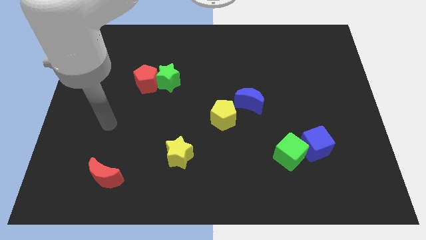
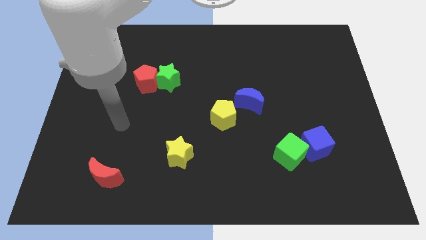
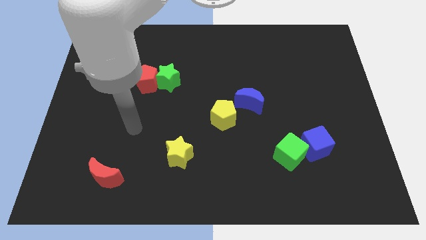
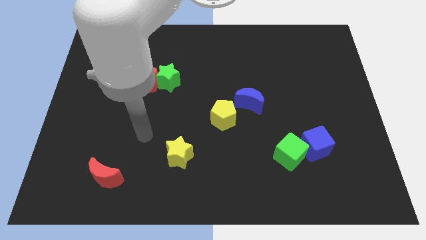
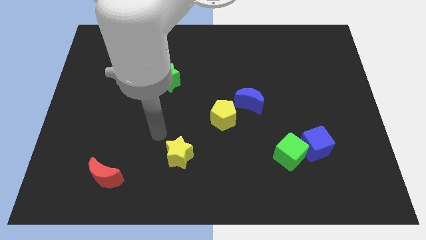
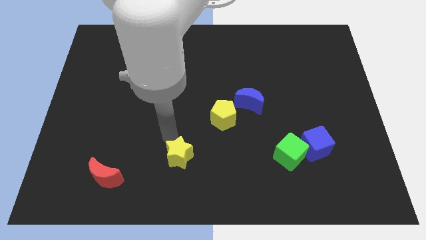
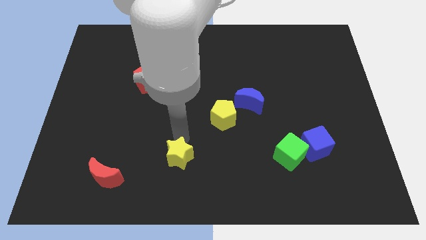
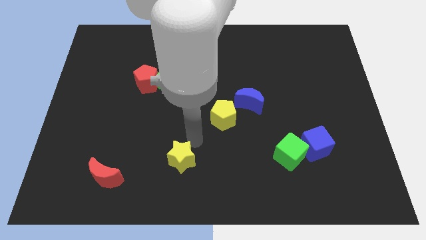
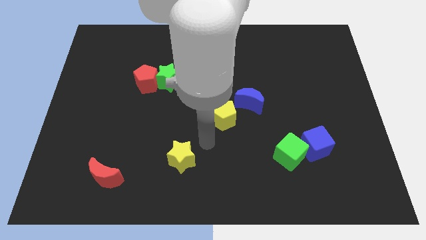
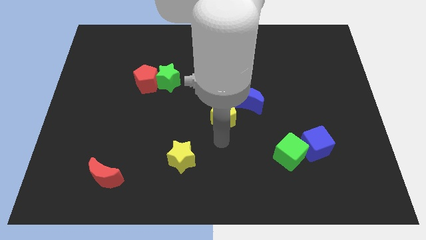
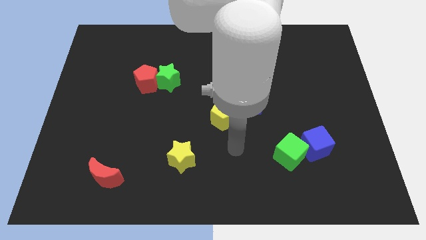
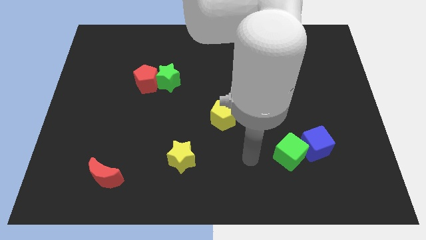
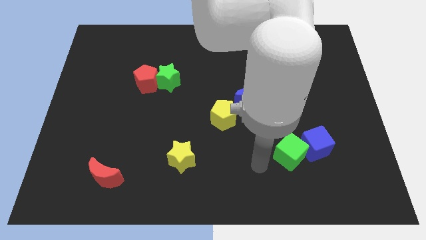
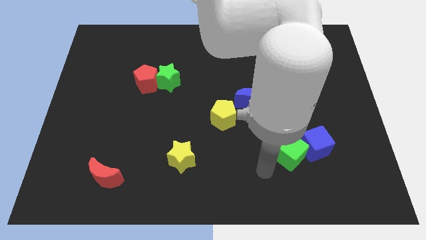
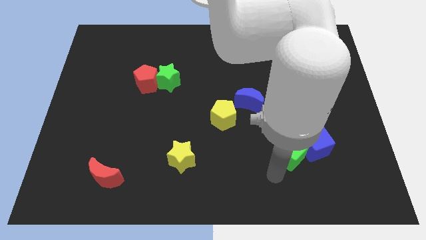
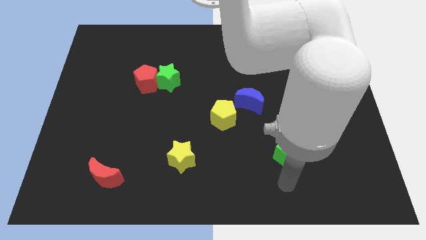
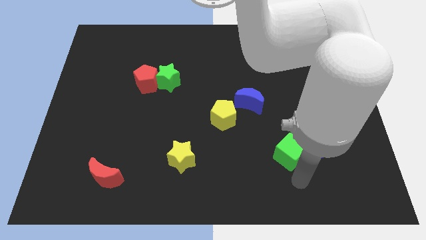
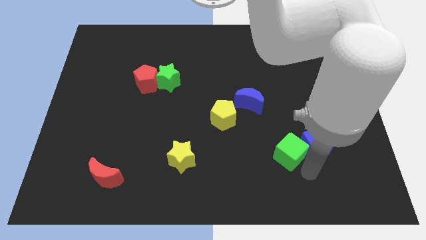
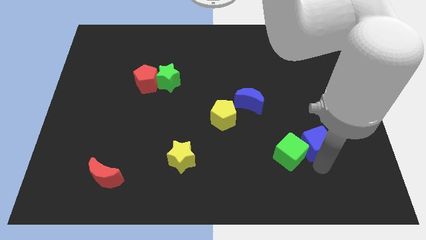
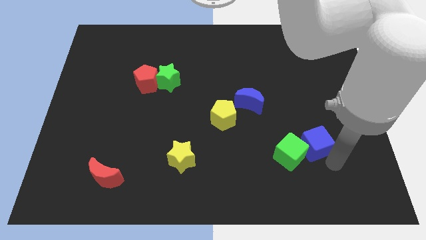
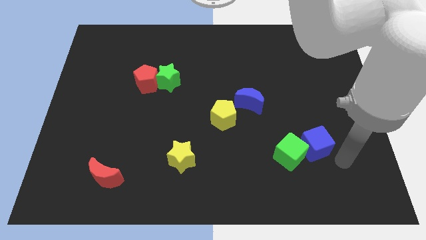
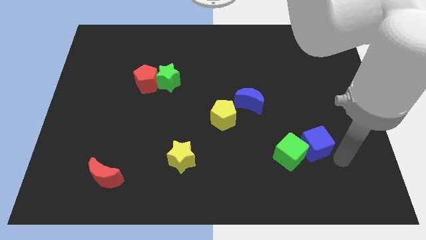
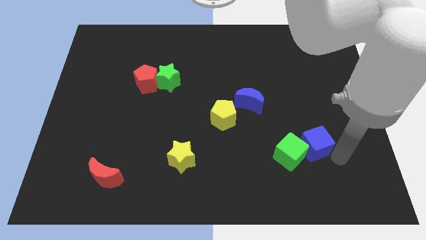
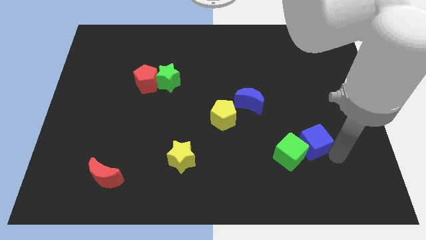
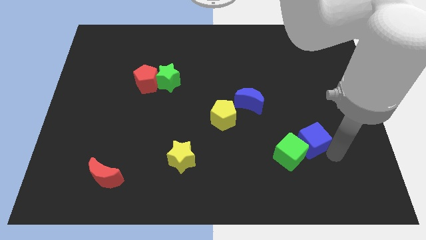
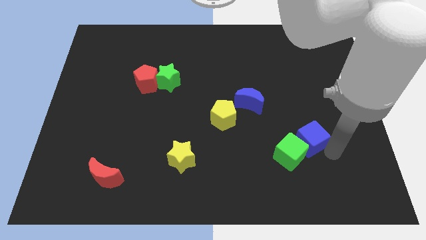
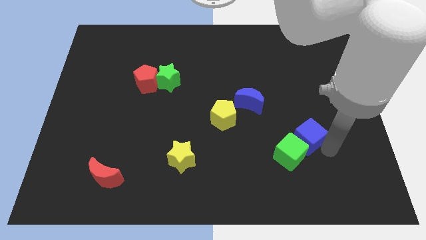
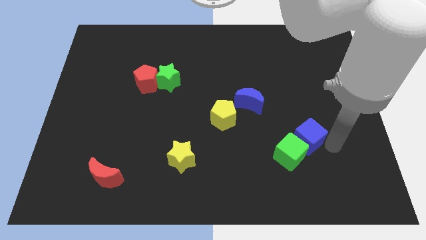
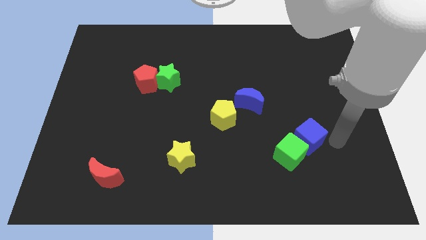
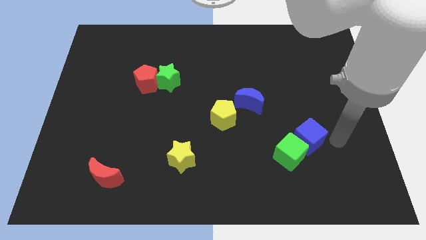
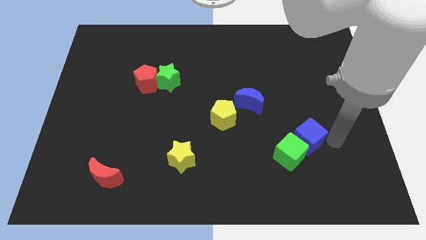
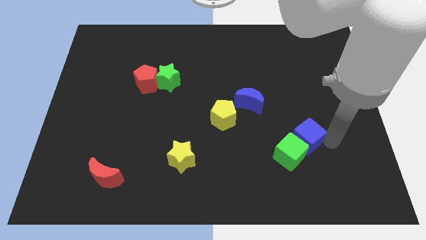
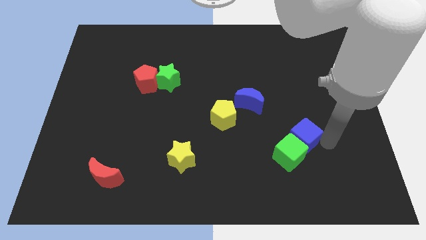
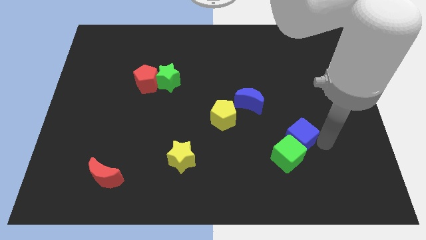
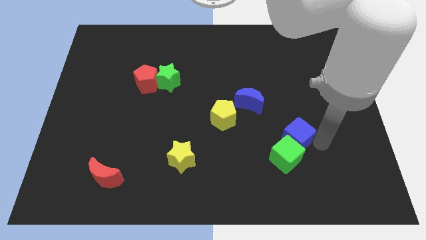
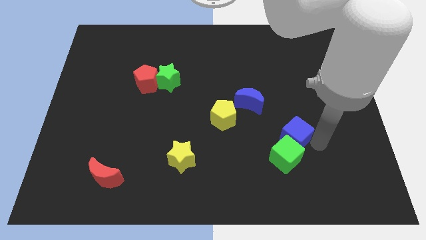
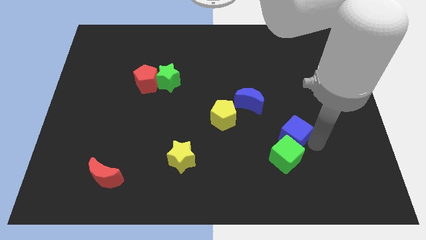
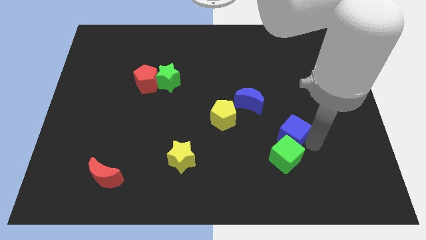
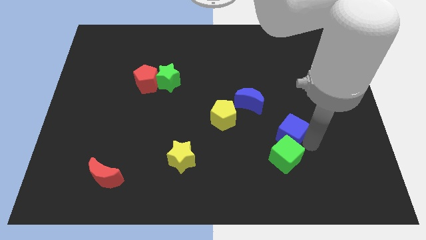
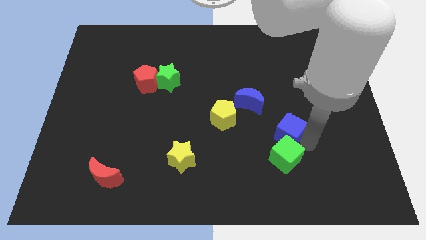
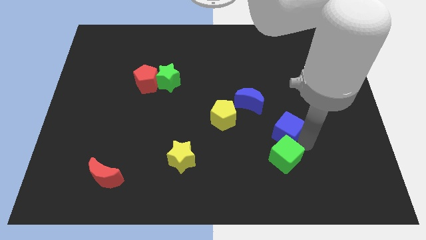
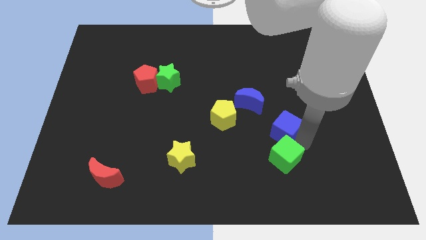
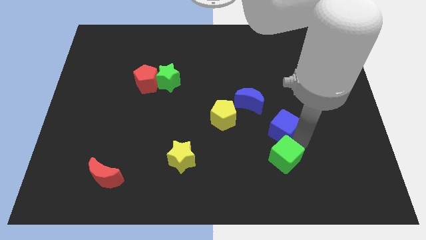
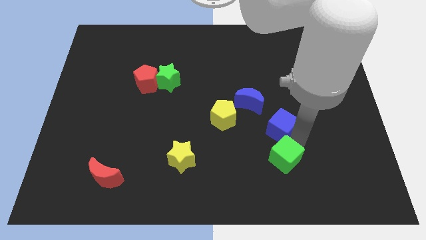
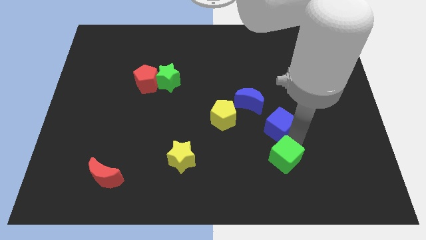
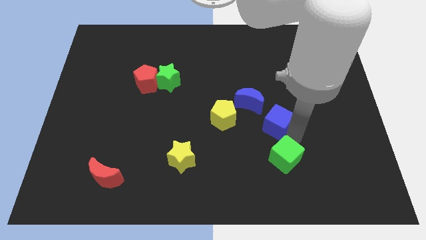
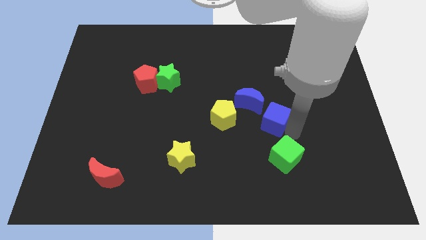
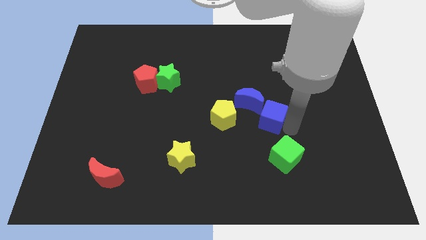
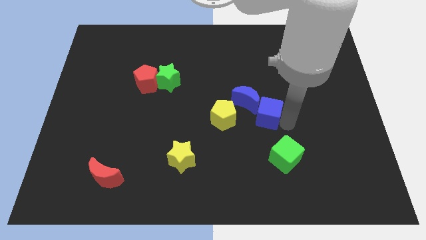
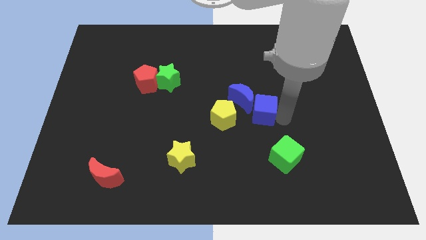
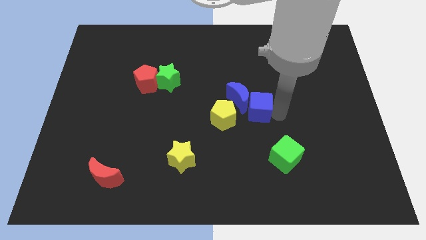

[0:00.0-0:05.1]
move the blue cube a bit left

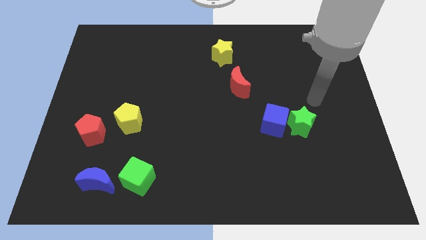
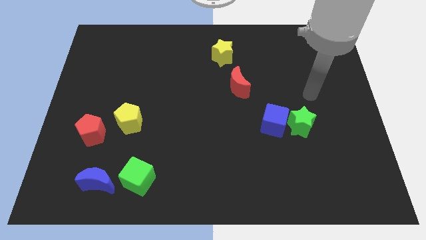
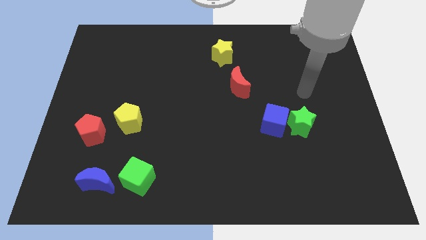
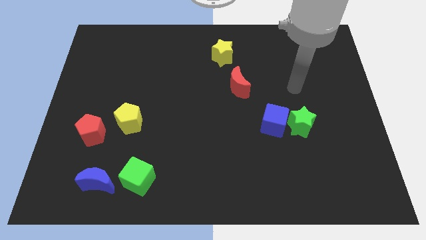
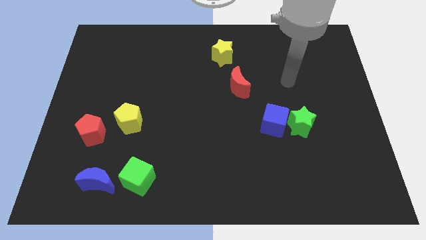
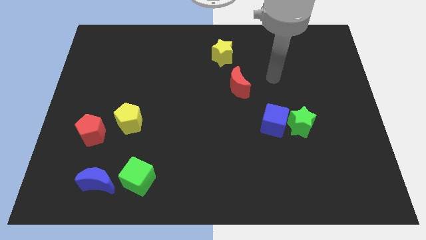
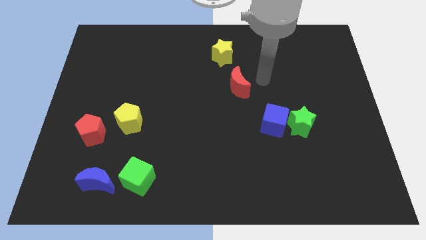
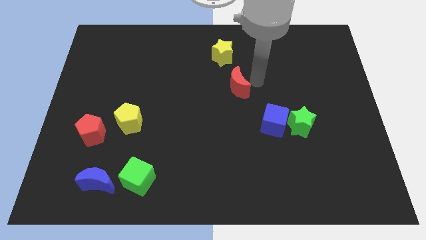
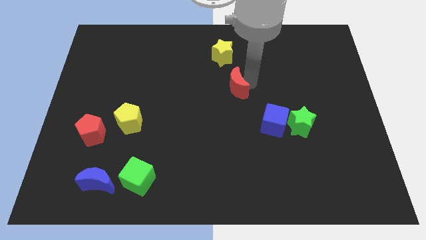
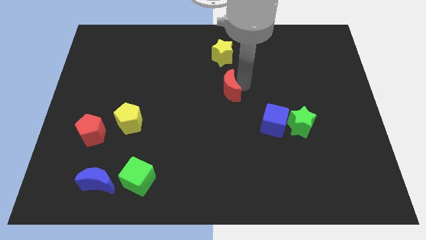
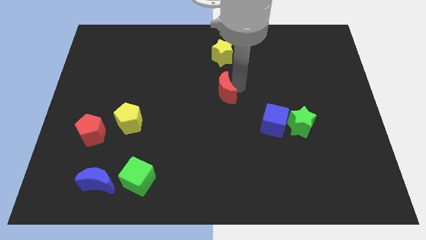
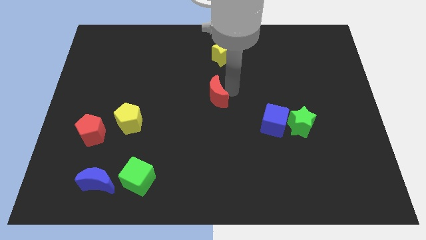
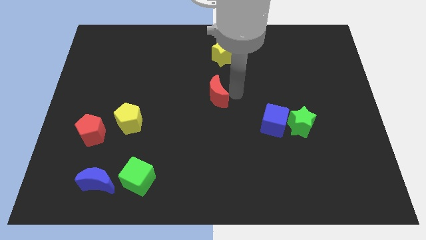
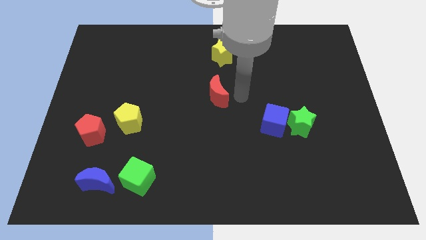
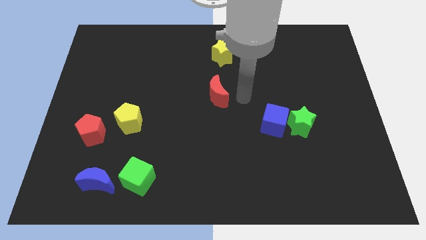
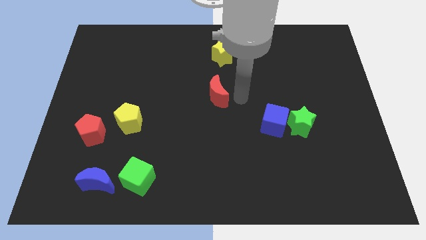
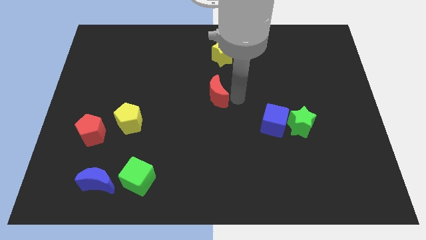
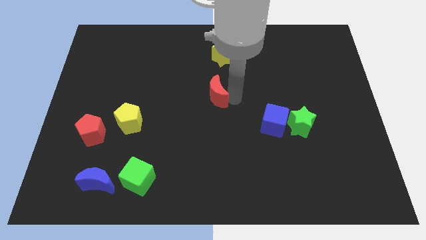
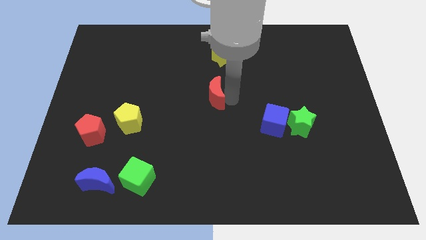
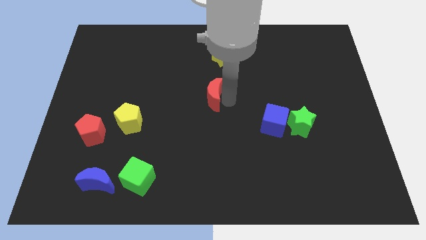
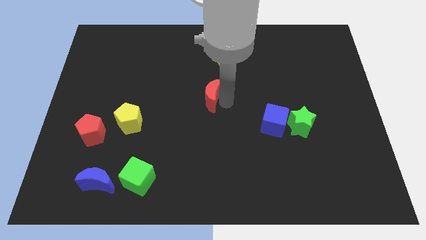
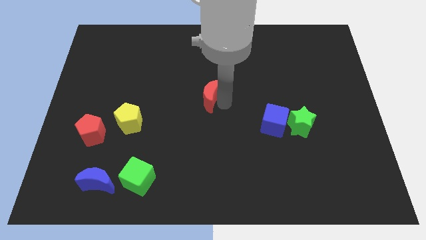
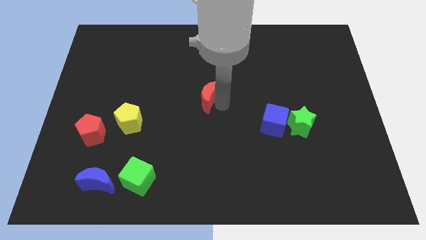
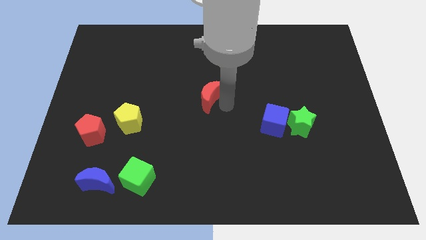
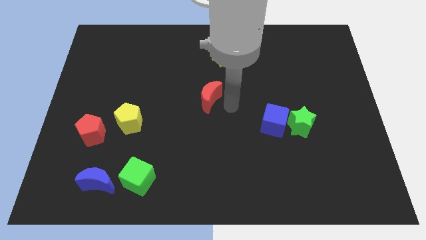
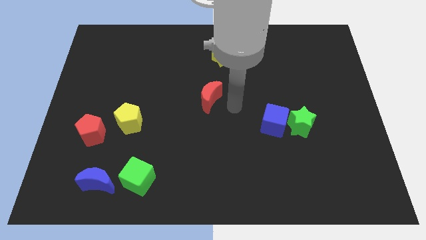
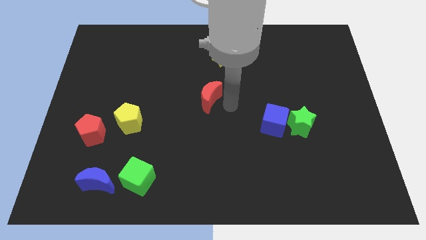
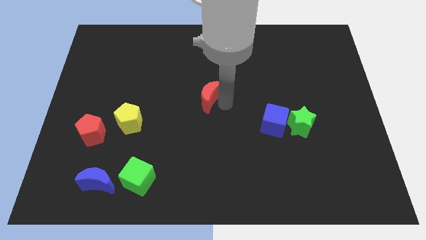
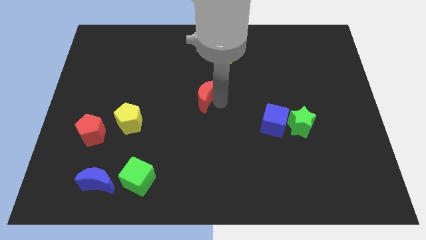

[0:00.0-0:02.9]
push the red moon left a bit
